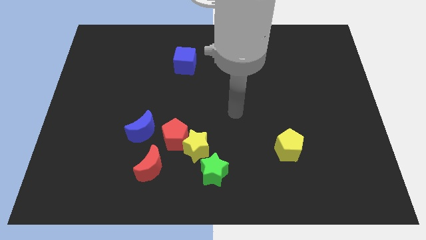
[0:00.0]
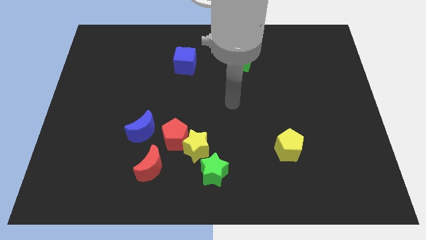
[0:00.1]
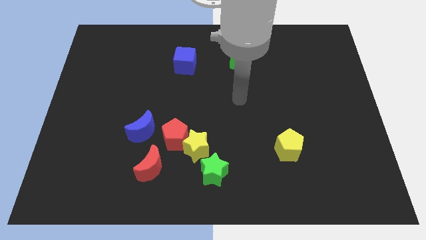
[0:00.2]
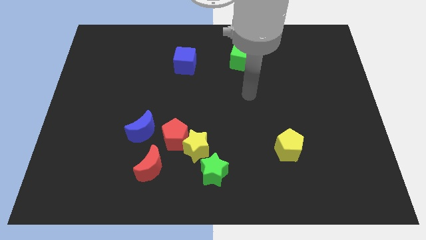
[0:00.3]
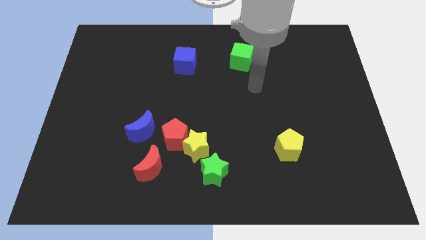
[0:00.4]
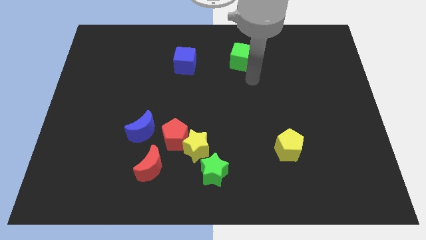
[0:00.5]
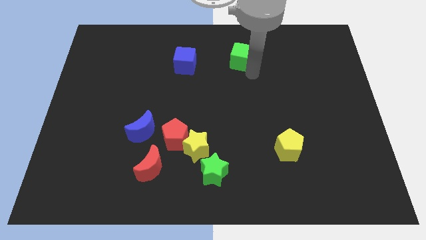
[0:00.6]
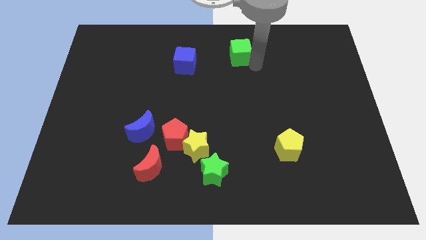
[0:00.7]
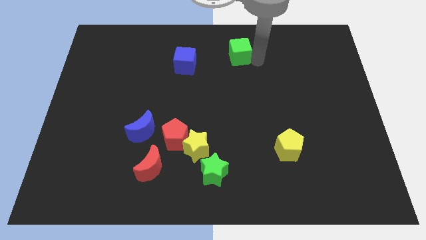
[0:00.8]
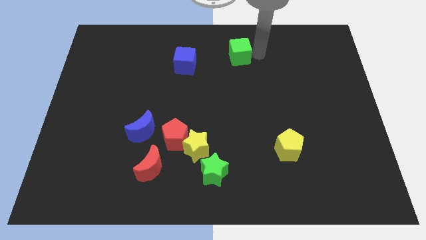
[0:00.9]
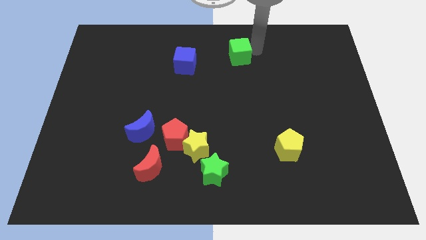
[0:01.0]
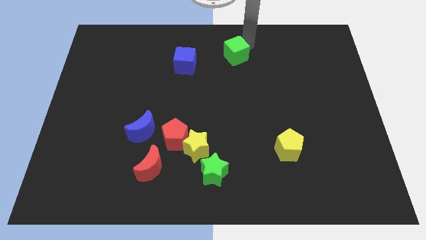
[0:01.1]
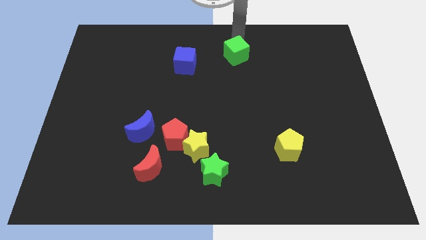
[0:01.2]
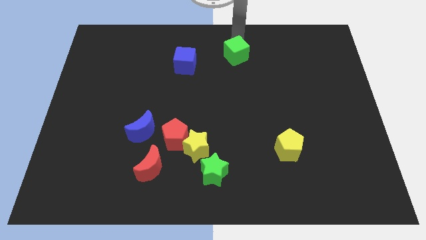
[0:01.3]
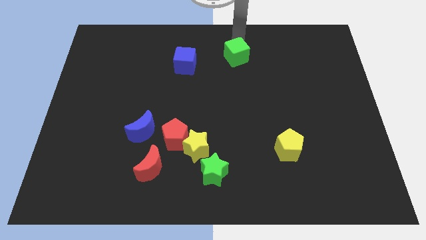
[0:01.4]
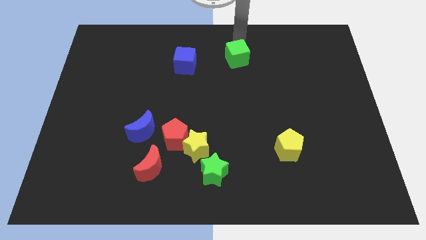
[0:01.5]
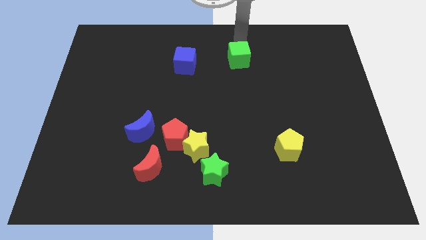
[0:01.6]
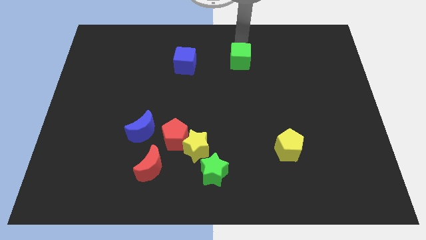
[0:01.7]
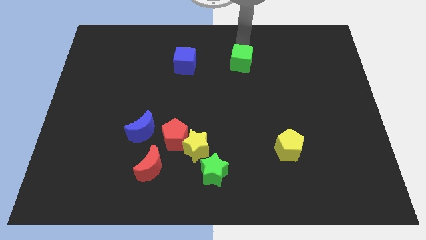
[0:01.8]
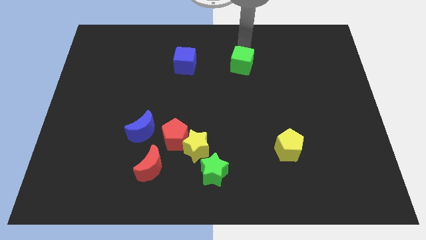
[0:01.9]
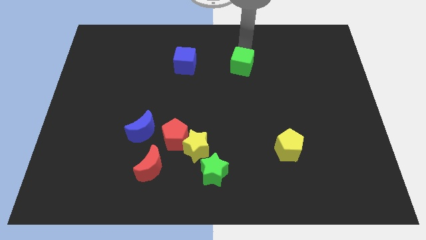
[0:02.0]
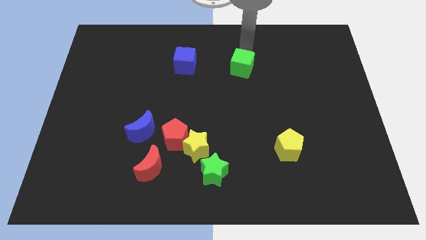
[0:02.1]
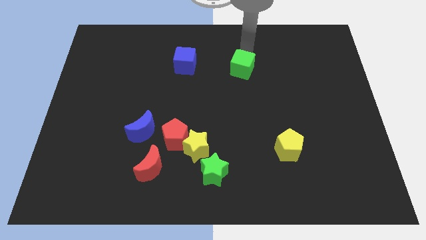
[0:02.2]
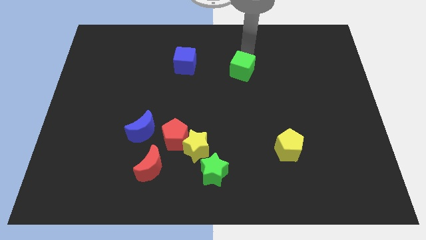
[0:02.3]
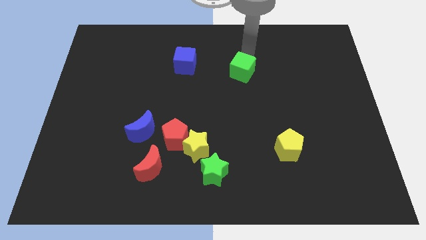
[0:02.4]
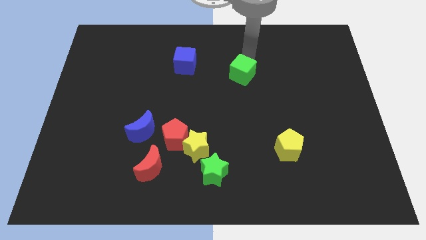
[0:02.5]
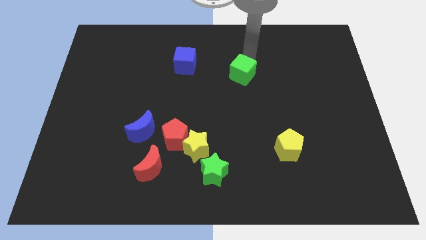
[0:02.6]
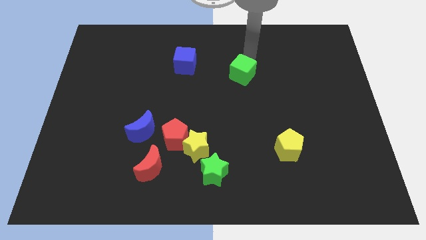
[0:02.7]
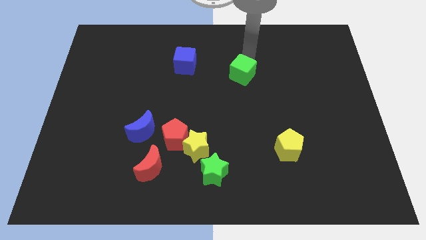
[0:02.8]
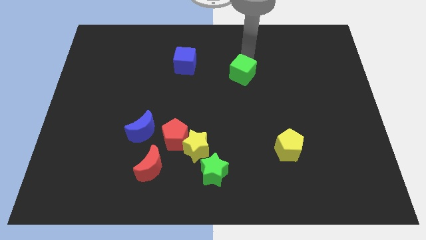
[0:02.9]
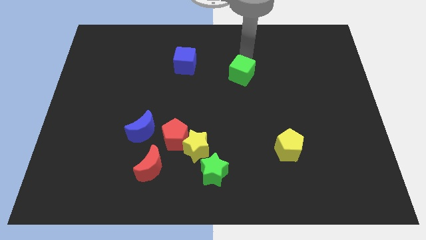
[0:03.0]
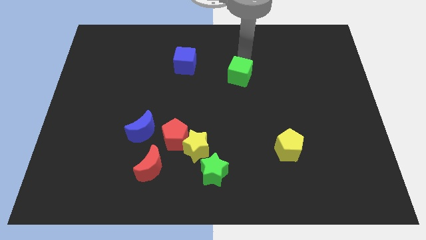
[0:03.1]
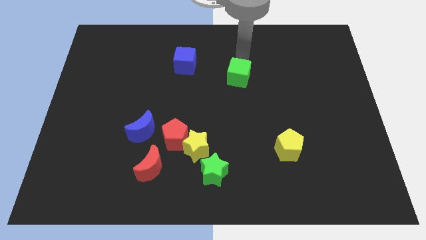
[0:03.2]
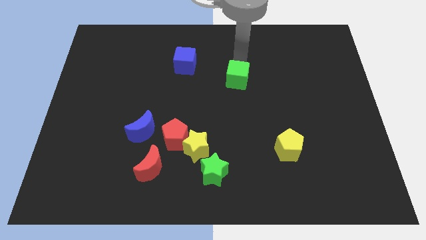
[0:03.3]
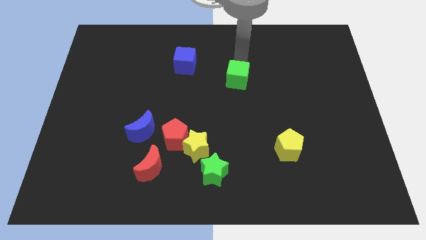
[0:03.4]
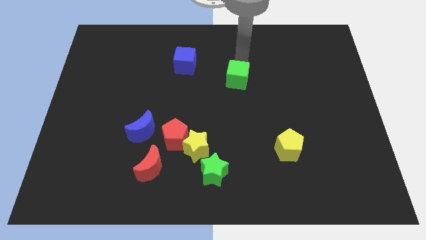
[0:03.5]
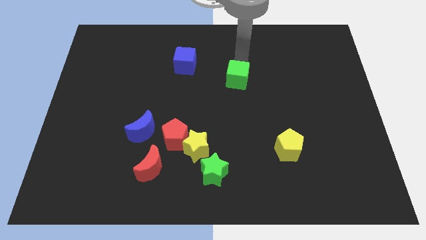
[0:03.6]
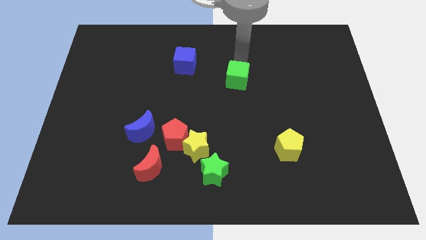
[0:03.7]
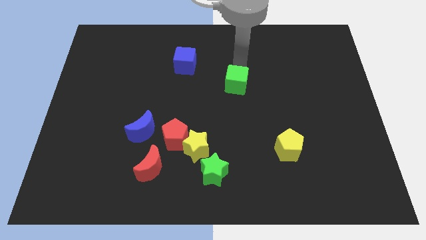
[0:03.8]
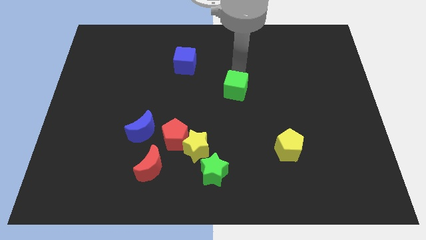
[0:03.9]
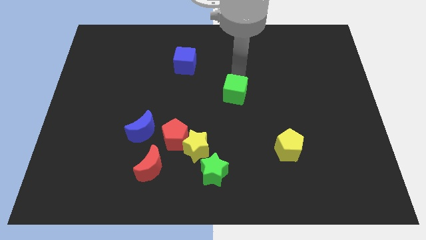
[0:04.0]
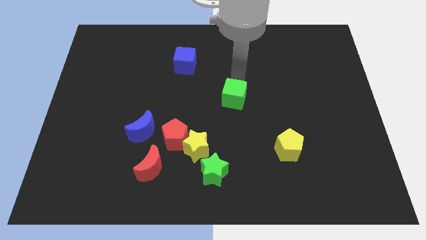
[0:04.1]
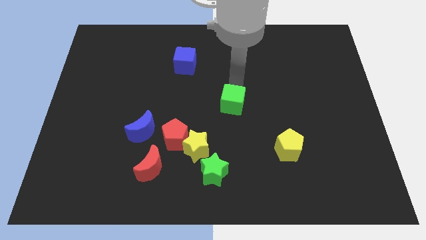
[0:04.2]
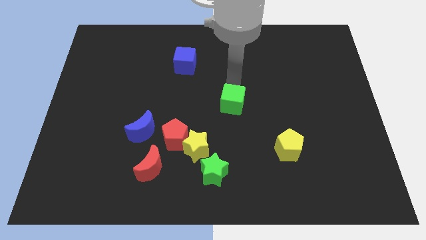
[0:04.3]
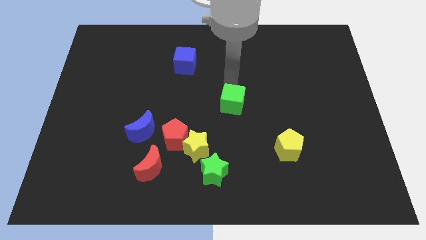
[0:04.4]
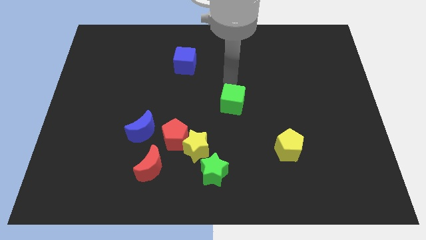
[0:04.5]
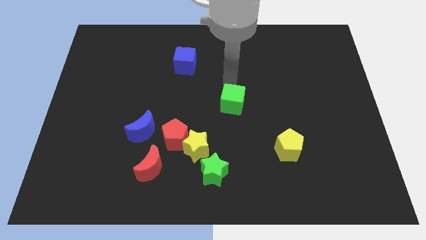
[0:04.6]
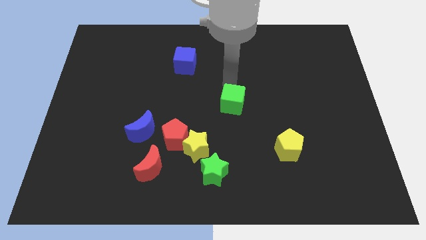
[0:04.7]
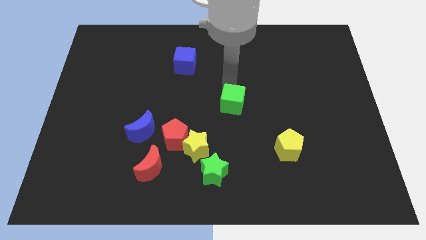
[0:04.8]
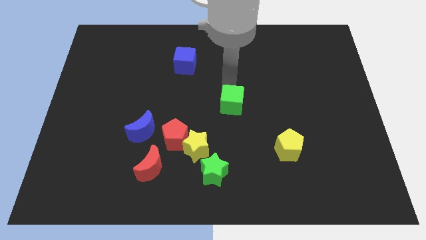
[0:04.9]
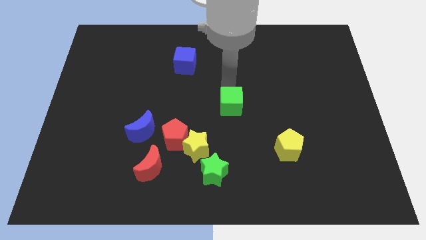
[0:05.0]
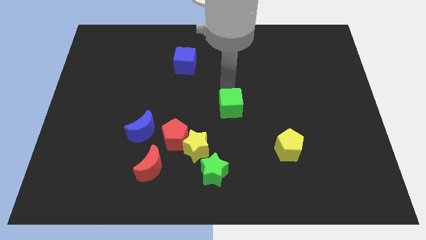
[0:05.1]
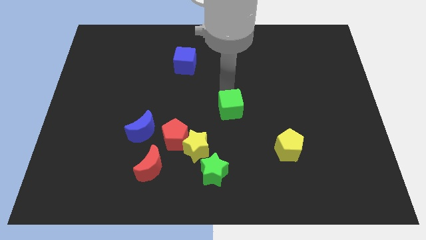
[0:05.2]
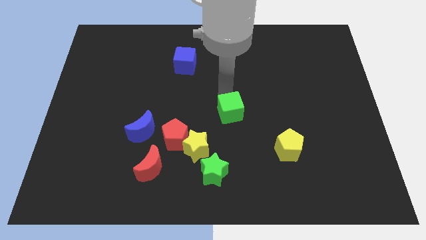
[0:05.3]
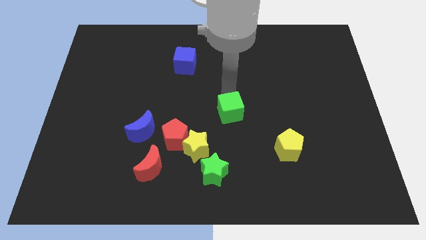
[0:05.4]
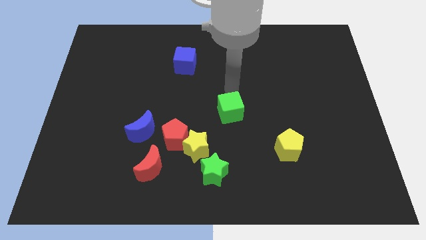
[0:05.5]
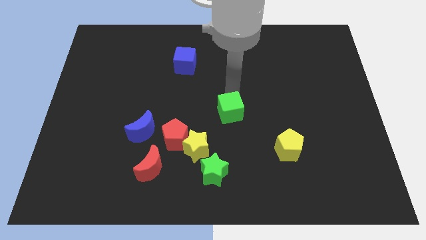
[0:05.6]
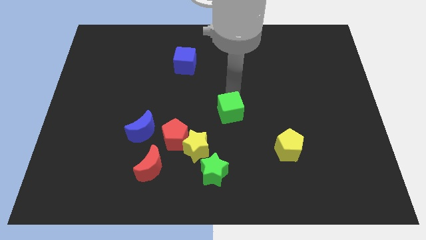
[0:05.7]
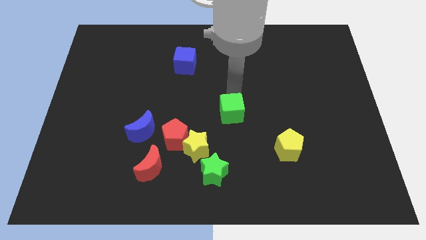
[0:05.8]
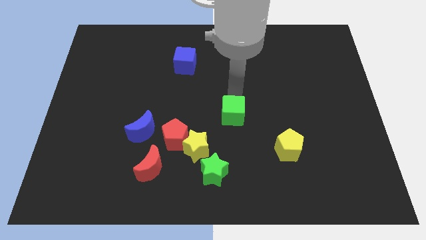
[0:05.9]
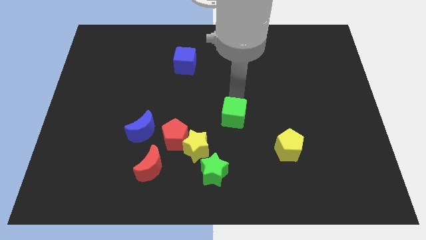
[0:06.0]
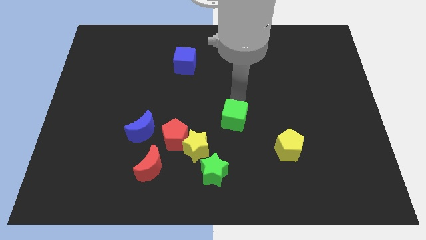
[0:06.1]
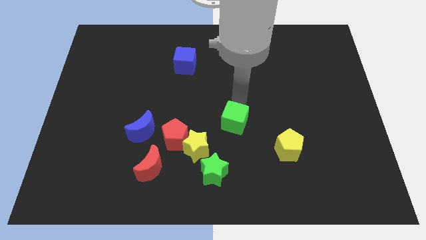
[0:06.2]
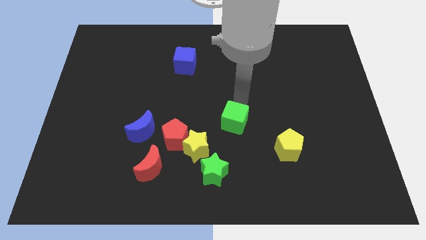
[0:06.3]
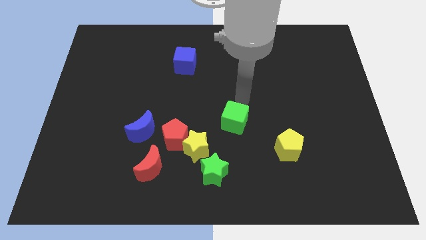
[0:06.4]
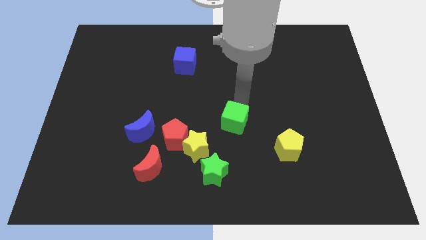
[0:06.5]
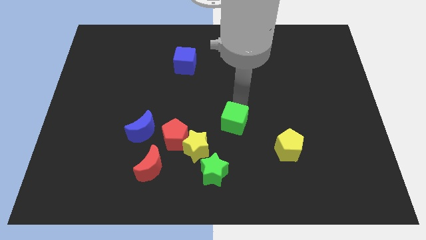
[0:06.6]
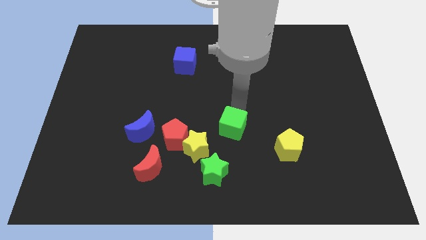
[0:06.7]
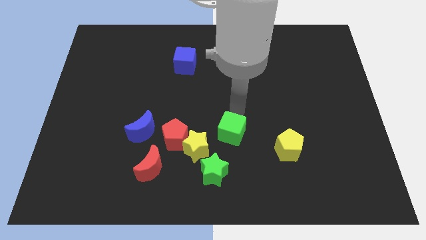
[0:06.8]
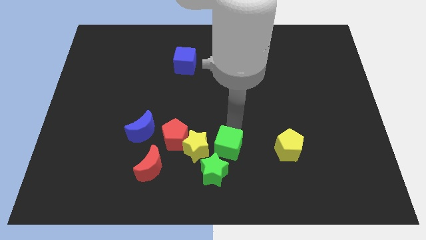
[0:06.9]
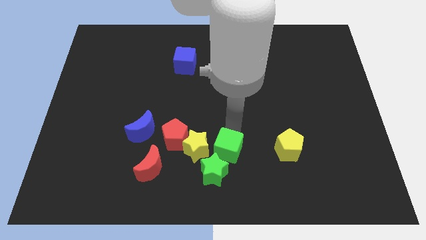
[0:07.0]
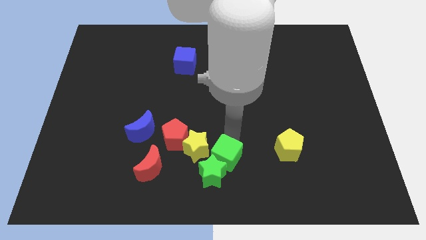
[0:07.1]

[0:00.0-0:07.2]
put the green cube towards the green star
